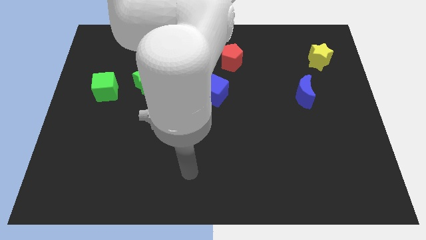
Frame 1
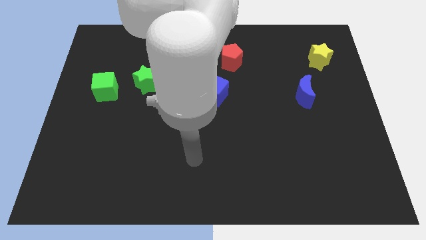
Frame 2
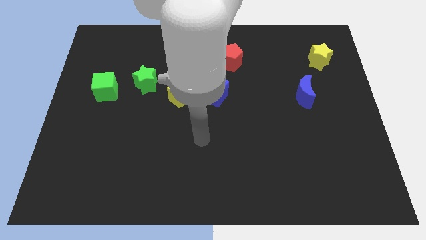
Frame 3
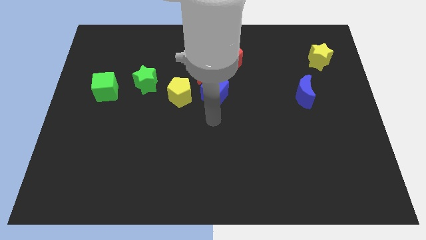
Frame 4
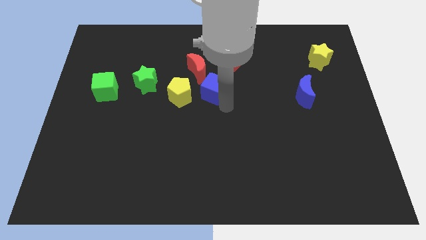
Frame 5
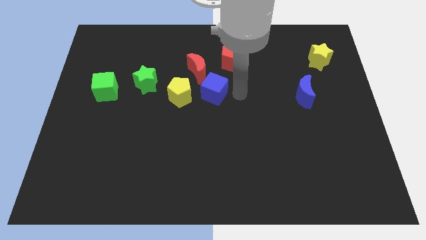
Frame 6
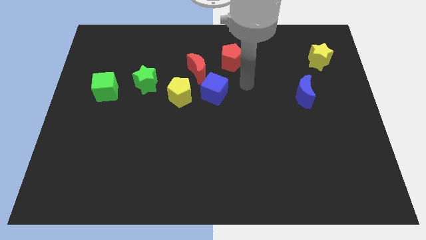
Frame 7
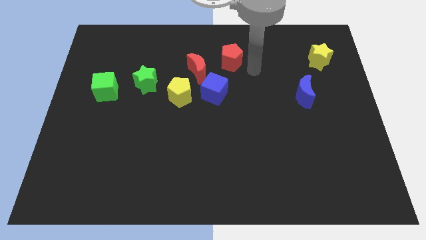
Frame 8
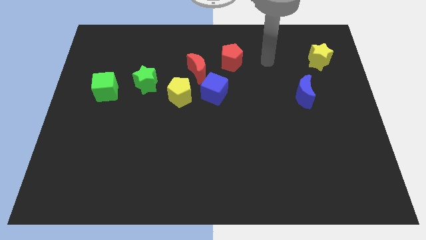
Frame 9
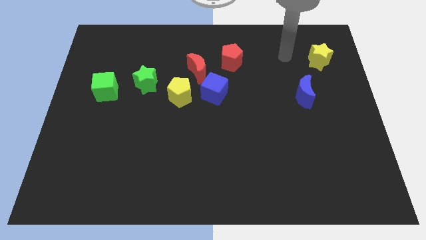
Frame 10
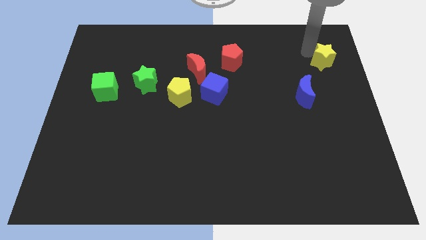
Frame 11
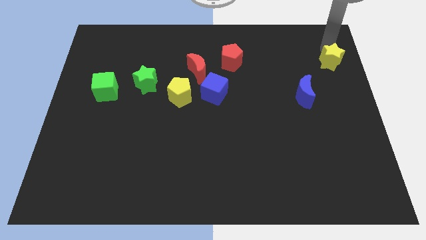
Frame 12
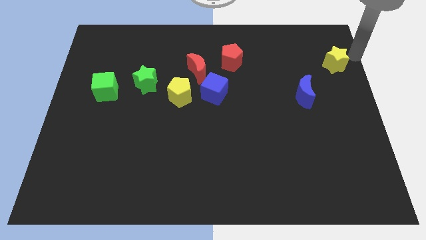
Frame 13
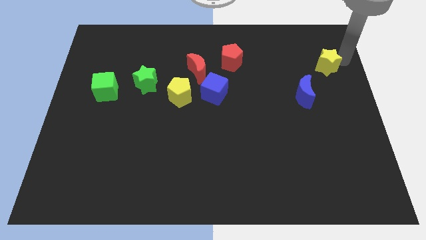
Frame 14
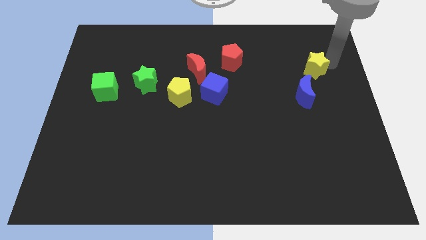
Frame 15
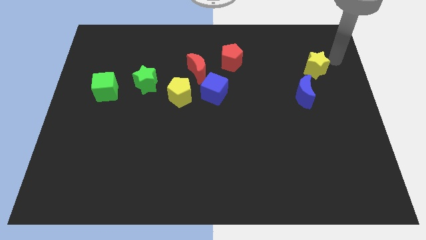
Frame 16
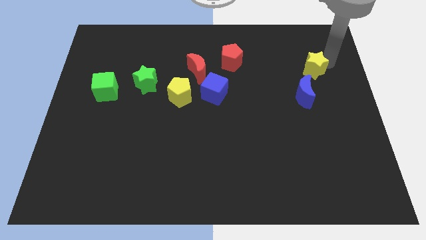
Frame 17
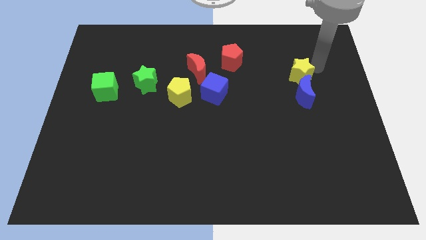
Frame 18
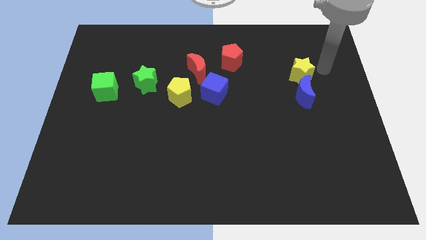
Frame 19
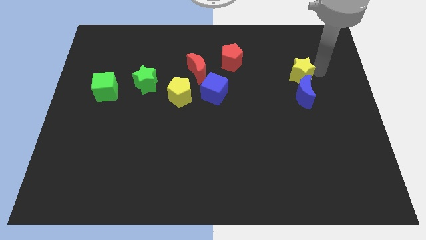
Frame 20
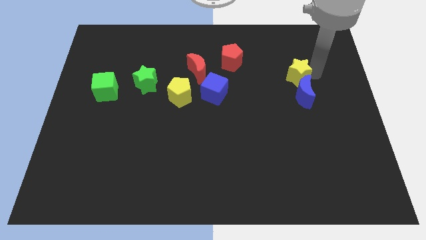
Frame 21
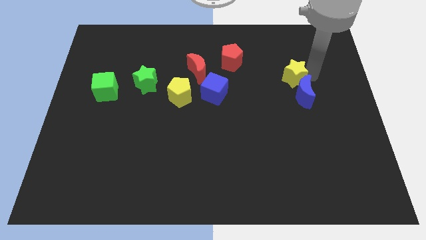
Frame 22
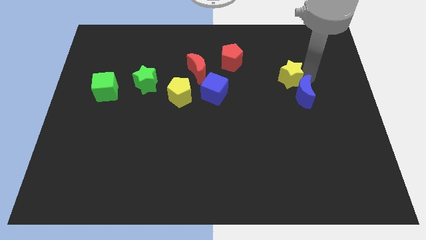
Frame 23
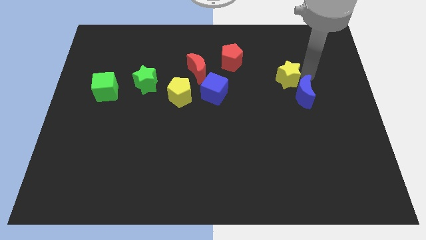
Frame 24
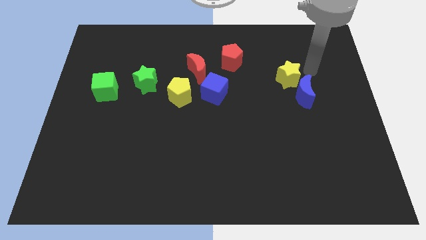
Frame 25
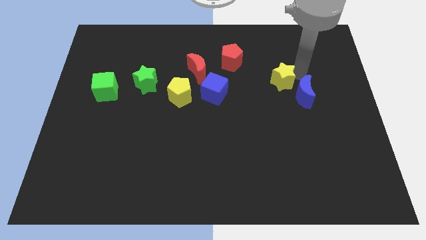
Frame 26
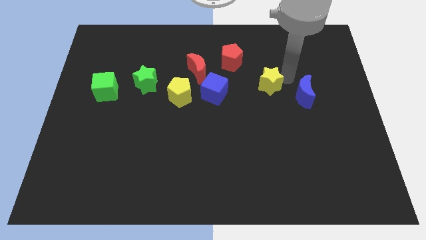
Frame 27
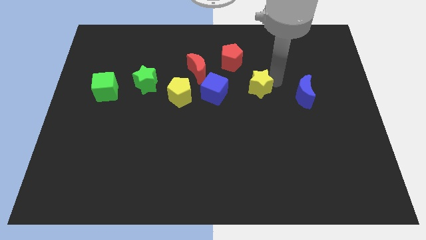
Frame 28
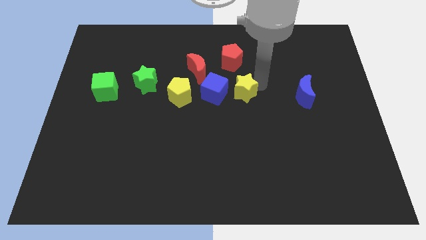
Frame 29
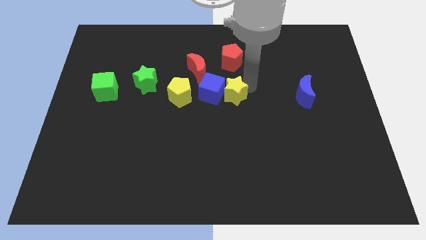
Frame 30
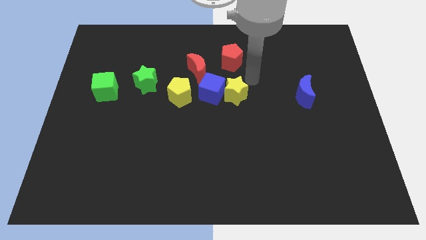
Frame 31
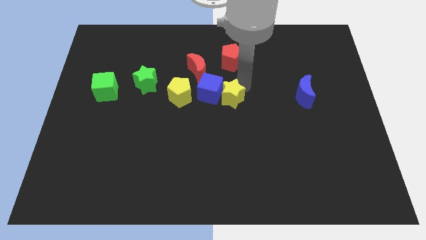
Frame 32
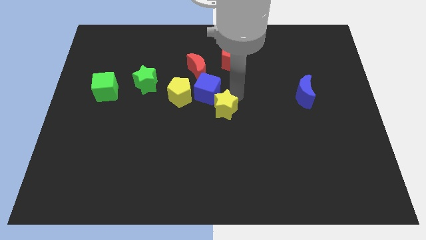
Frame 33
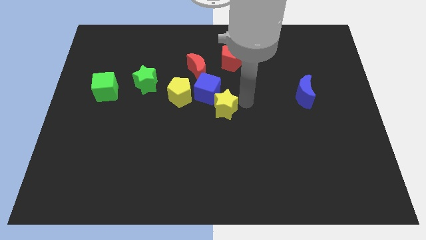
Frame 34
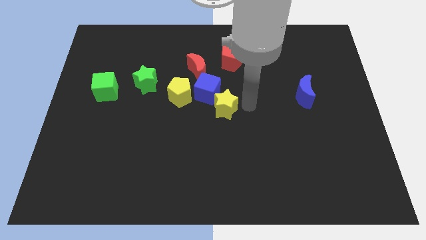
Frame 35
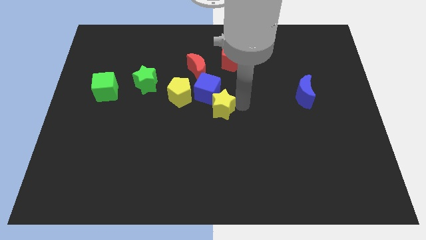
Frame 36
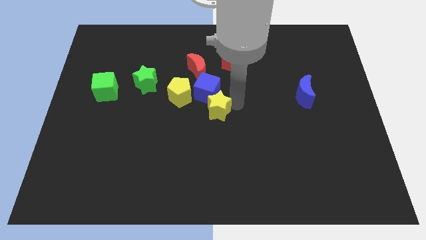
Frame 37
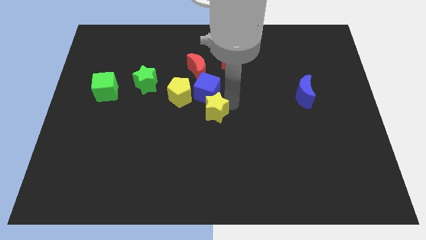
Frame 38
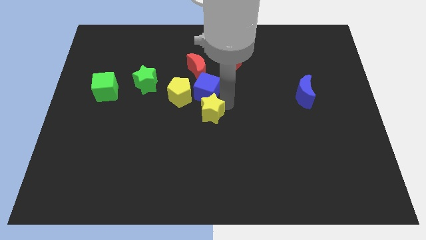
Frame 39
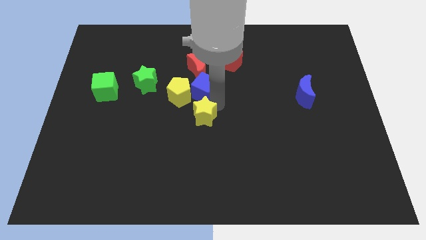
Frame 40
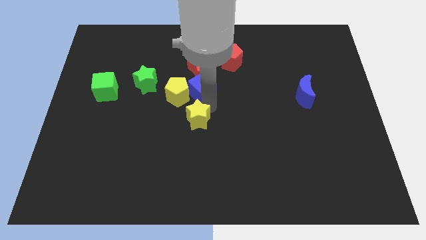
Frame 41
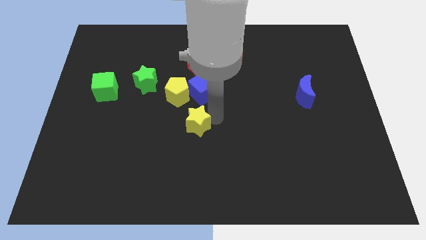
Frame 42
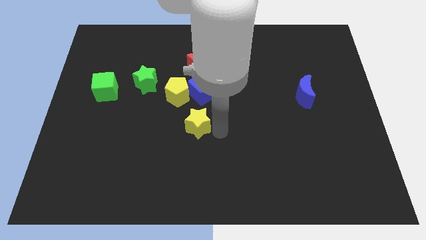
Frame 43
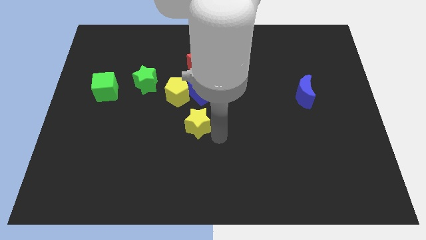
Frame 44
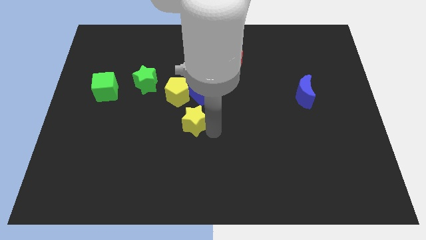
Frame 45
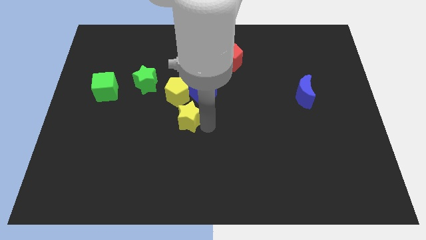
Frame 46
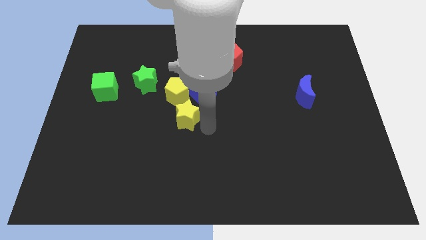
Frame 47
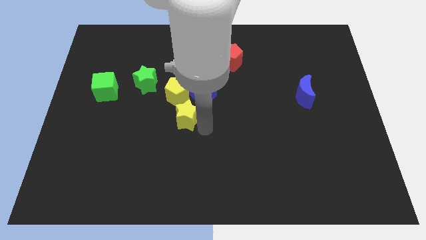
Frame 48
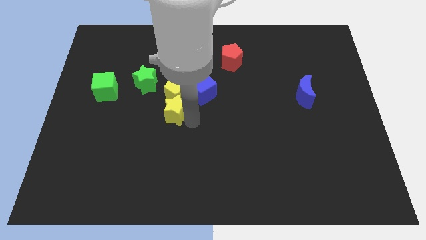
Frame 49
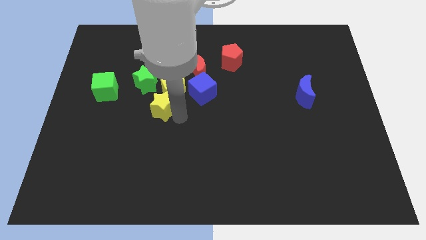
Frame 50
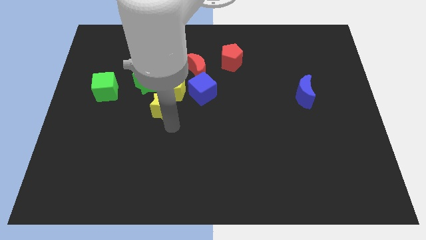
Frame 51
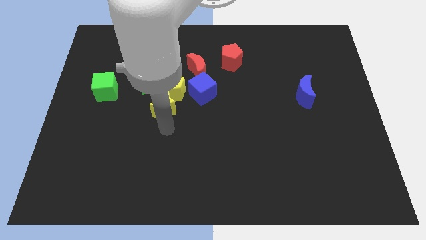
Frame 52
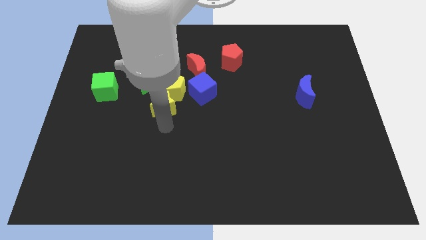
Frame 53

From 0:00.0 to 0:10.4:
put the yellow star to the left side of the blue cube

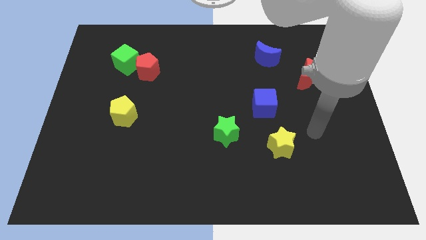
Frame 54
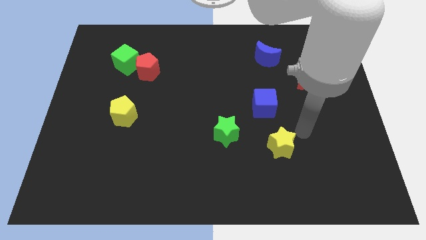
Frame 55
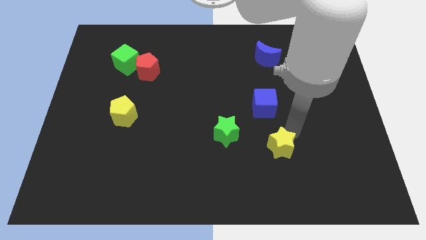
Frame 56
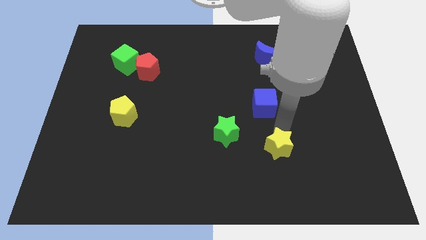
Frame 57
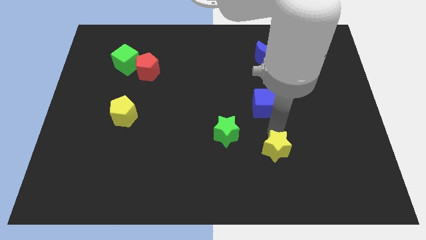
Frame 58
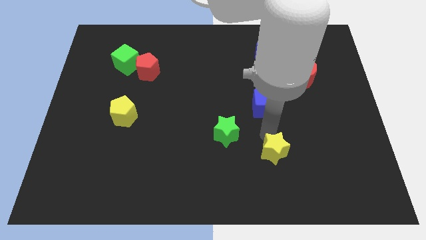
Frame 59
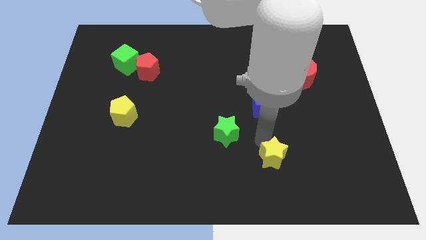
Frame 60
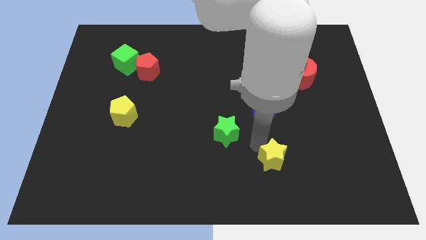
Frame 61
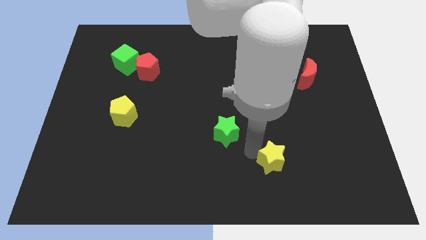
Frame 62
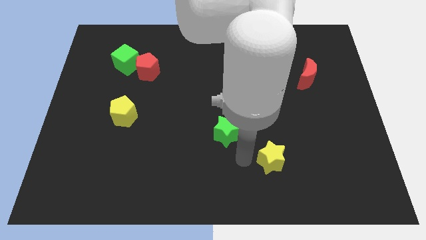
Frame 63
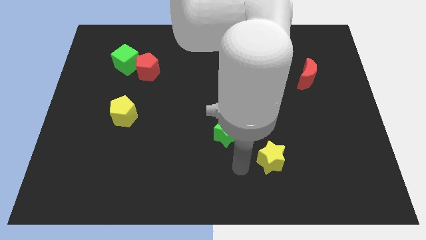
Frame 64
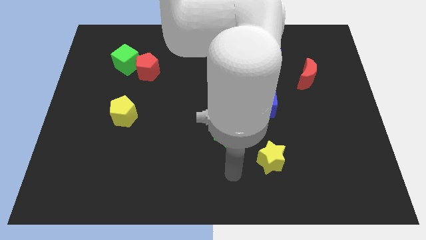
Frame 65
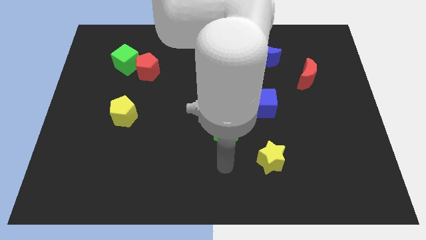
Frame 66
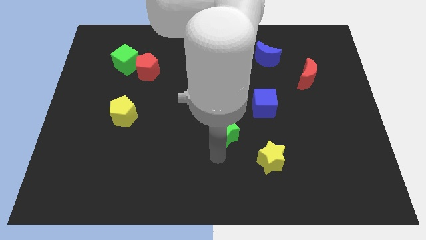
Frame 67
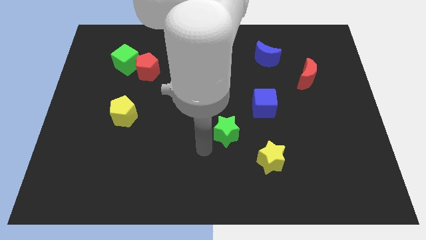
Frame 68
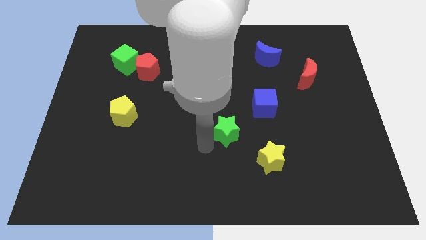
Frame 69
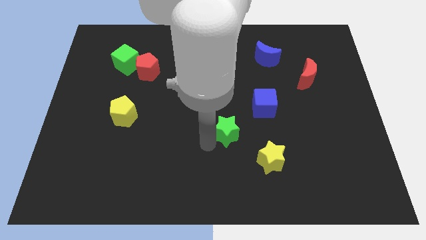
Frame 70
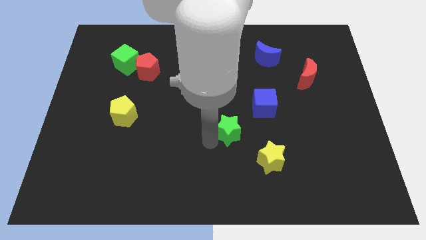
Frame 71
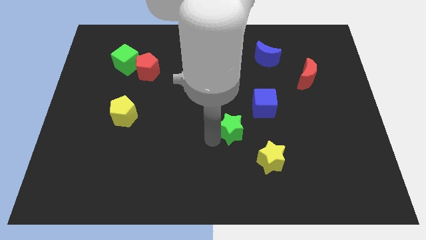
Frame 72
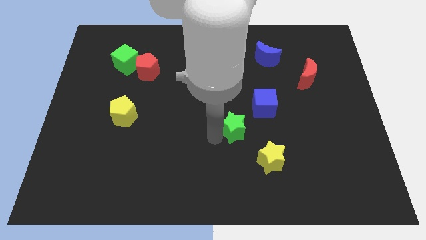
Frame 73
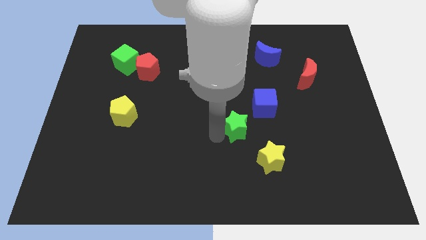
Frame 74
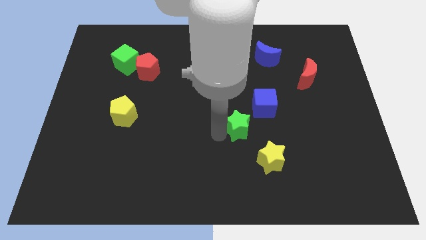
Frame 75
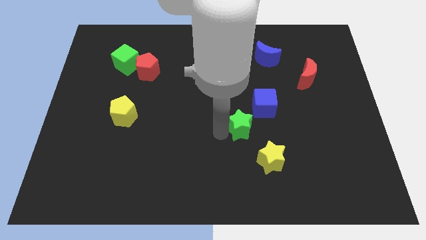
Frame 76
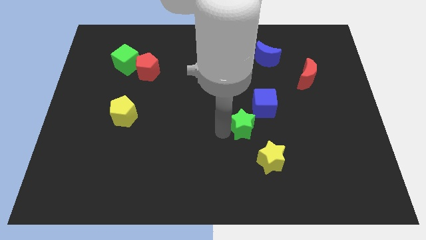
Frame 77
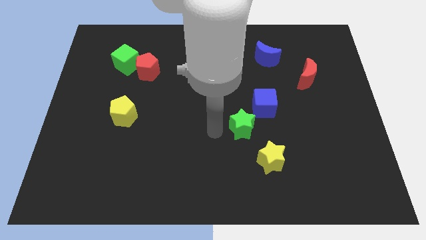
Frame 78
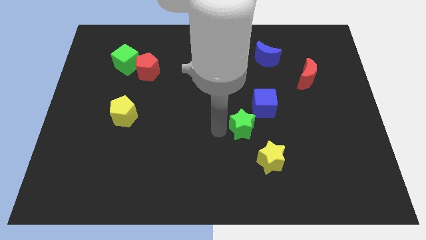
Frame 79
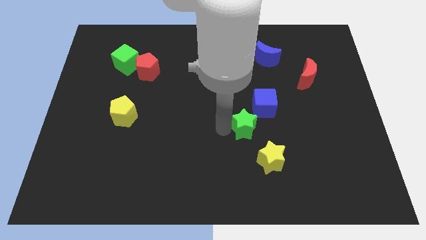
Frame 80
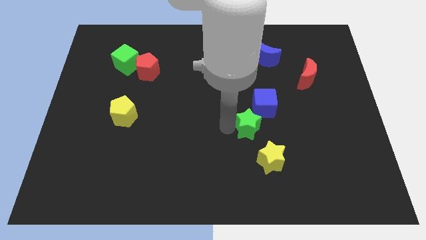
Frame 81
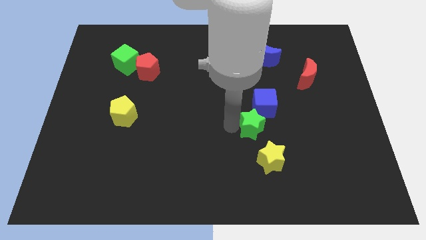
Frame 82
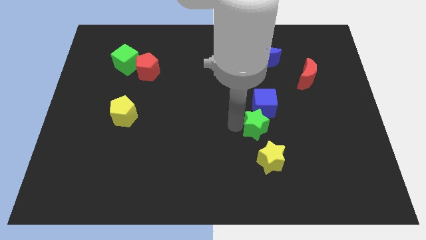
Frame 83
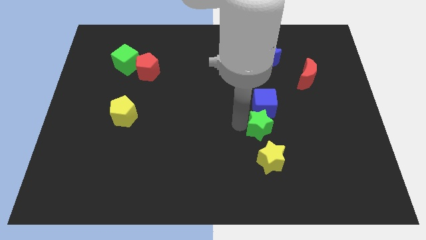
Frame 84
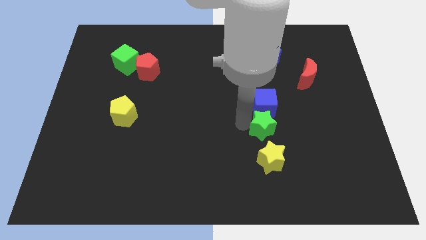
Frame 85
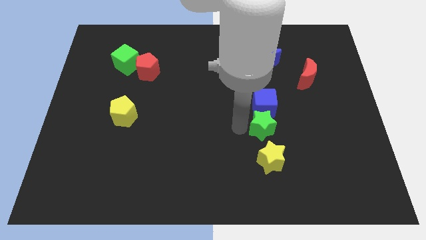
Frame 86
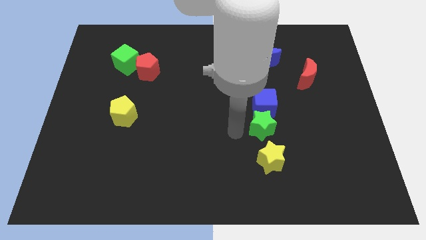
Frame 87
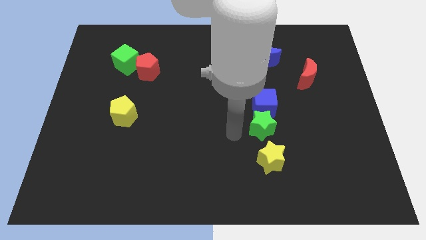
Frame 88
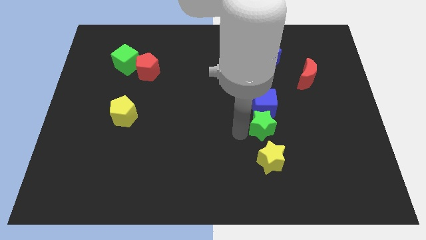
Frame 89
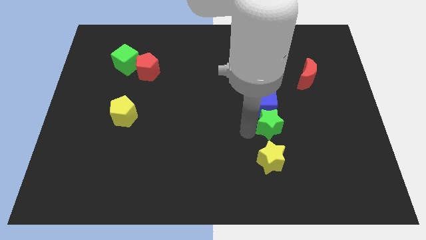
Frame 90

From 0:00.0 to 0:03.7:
slide the green star to the bottom right side of the blue cube
